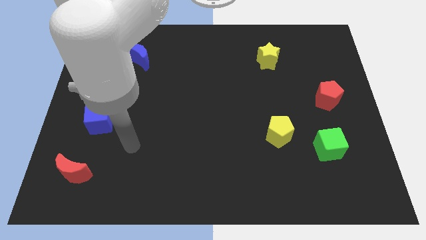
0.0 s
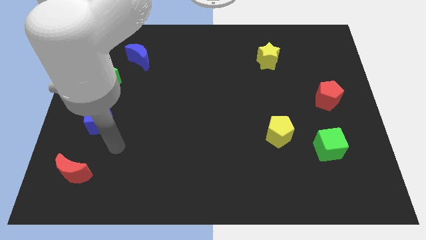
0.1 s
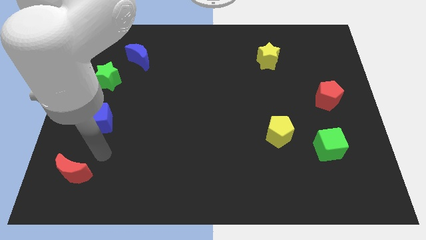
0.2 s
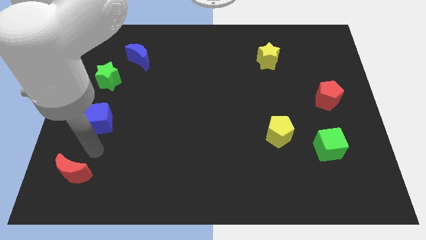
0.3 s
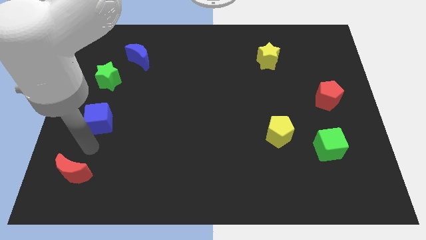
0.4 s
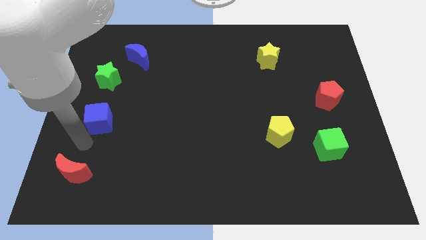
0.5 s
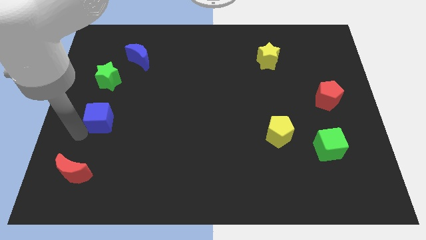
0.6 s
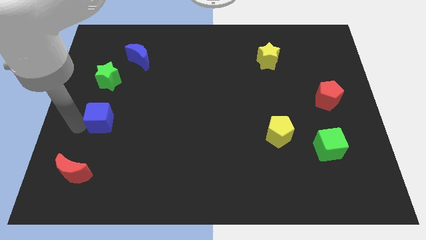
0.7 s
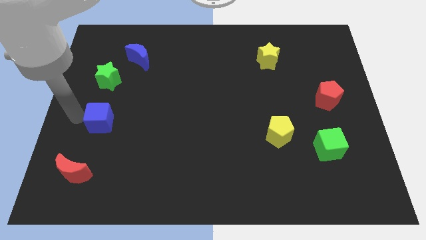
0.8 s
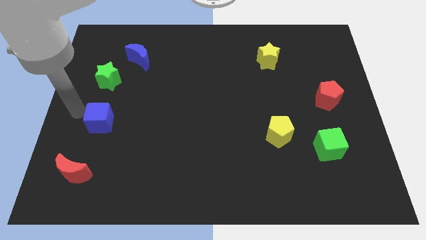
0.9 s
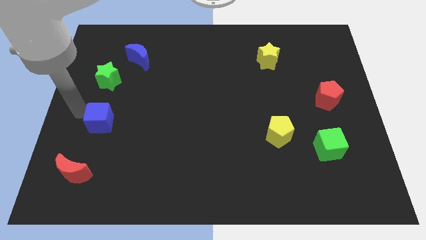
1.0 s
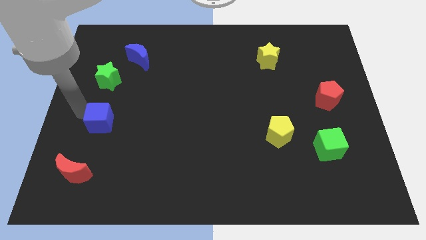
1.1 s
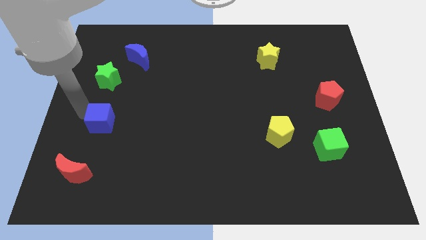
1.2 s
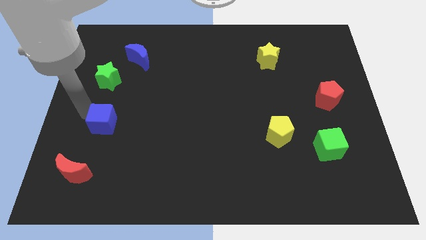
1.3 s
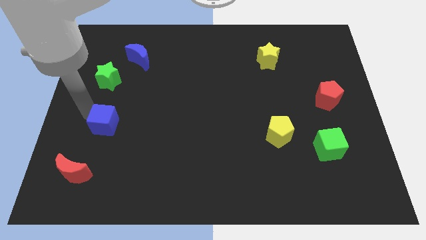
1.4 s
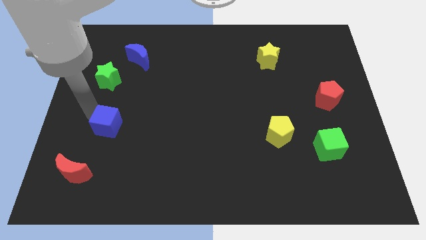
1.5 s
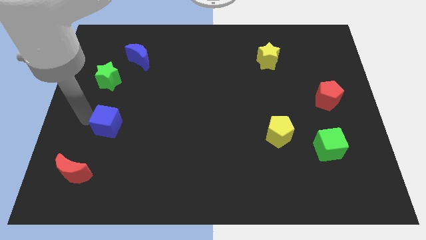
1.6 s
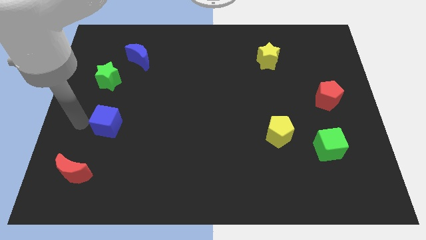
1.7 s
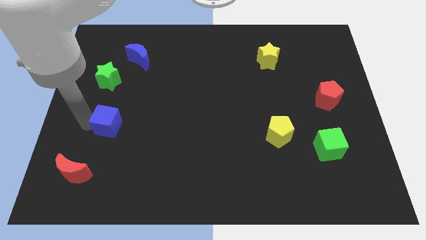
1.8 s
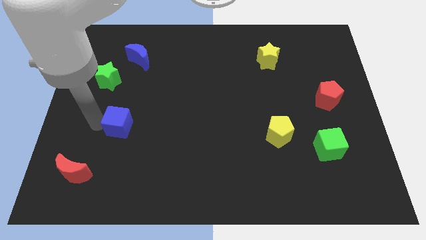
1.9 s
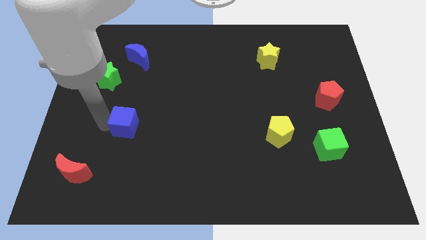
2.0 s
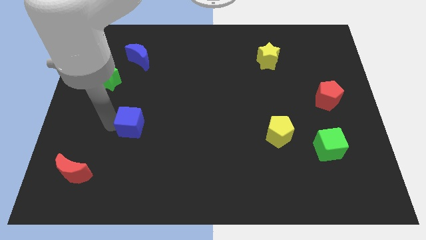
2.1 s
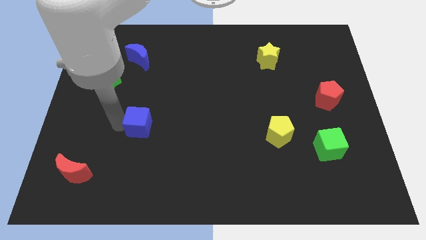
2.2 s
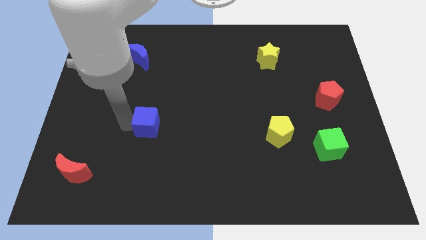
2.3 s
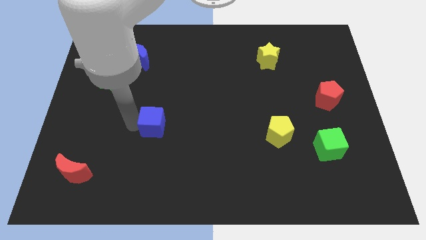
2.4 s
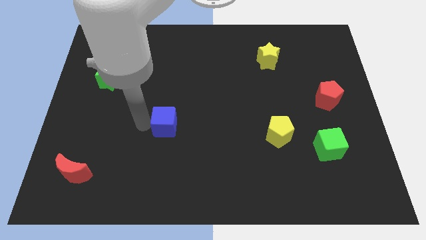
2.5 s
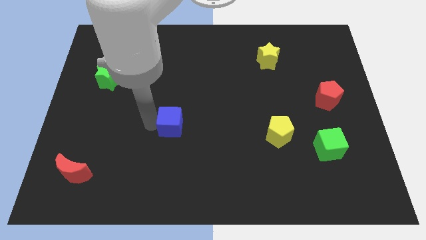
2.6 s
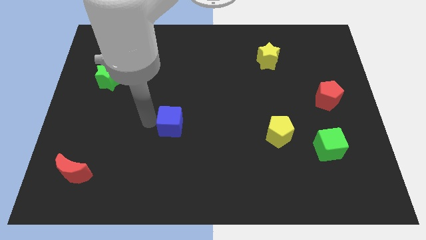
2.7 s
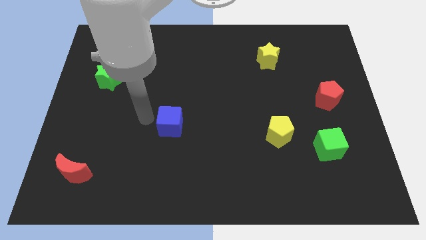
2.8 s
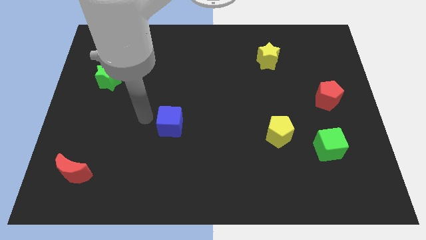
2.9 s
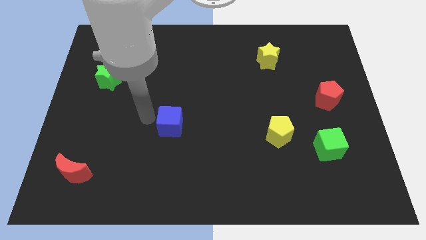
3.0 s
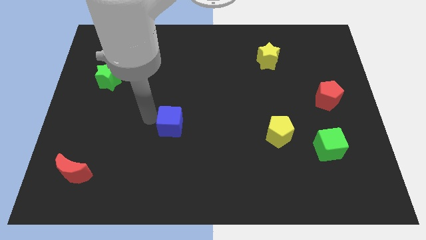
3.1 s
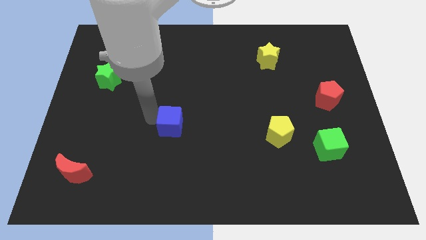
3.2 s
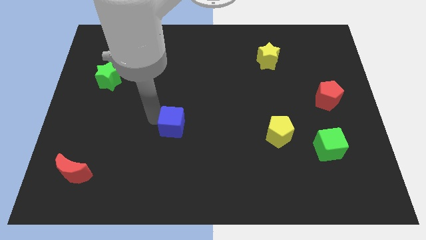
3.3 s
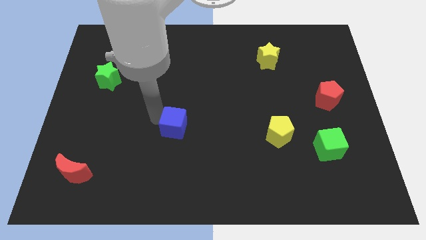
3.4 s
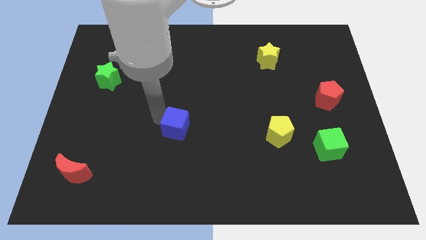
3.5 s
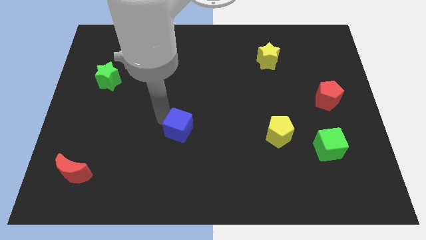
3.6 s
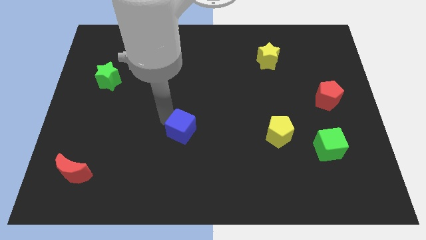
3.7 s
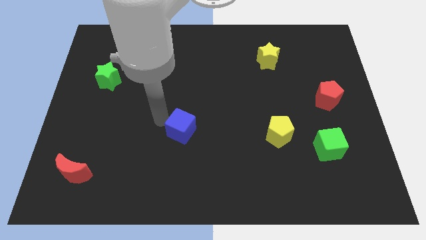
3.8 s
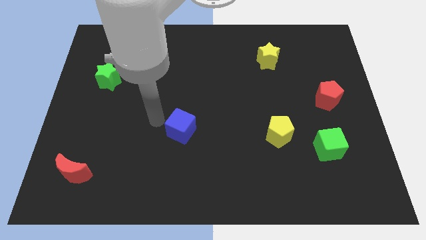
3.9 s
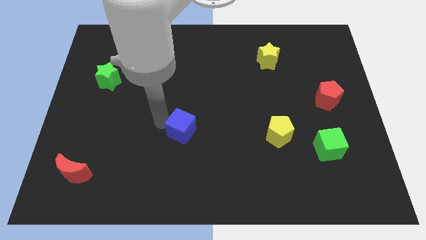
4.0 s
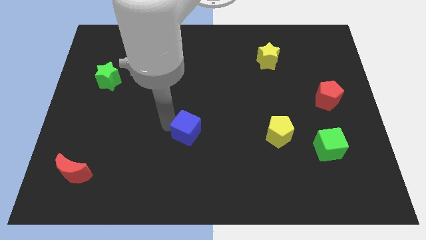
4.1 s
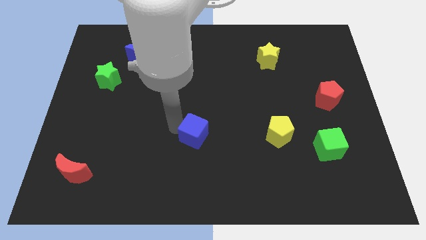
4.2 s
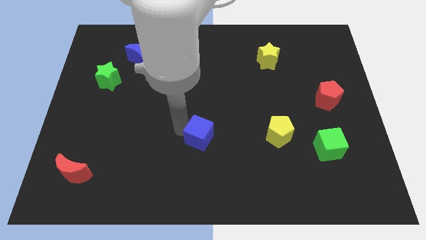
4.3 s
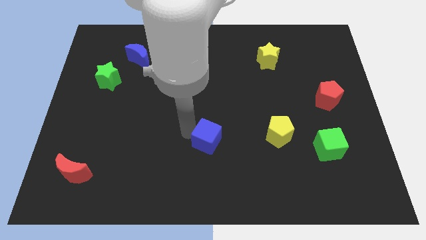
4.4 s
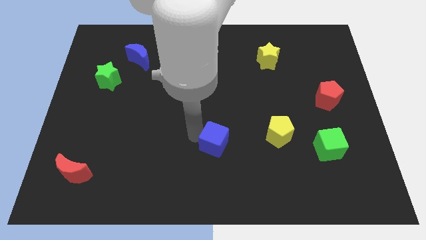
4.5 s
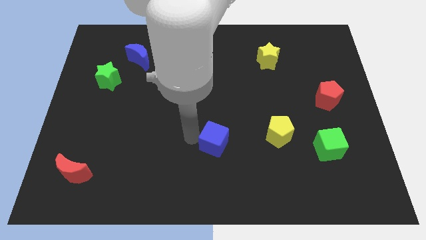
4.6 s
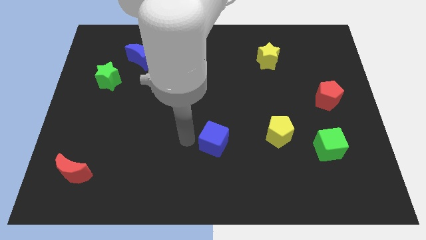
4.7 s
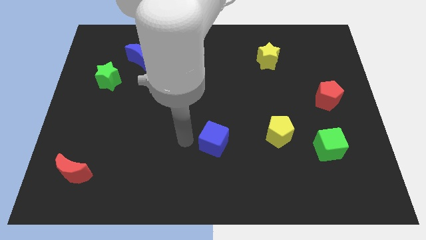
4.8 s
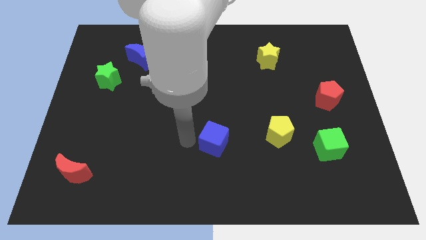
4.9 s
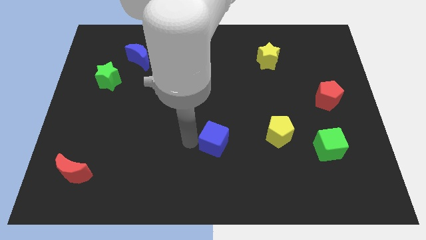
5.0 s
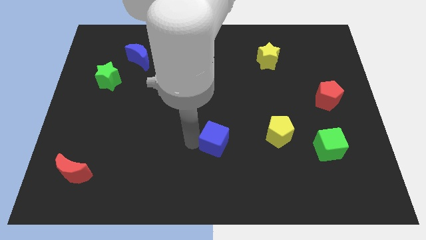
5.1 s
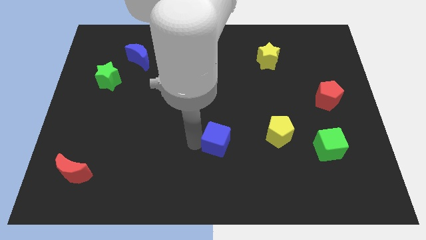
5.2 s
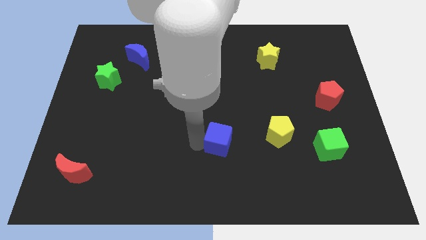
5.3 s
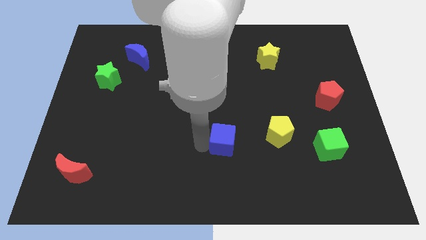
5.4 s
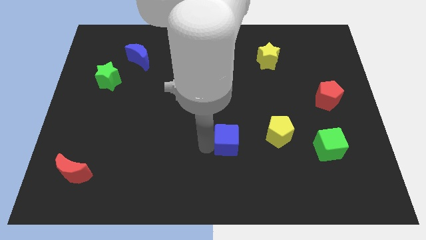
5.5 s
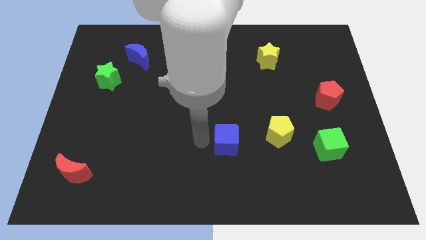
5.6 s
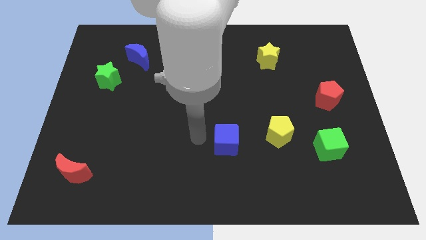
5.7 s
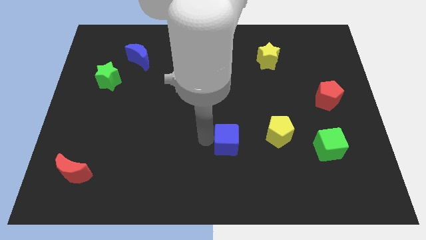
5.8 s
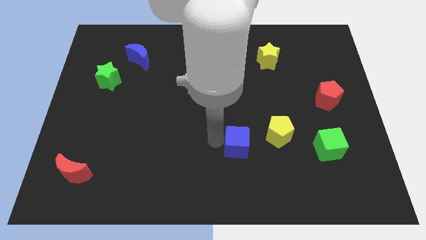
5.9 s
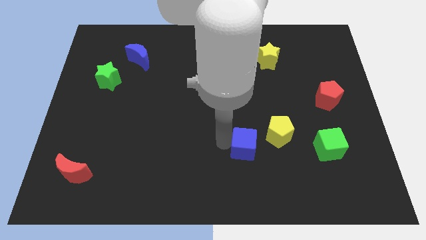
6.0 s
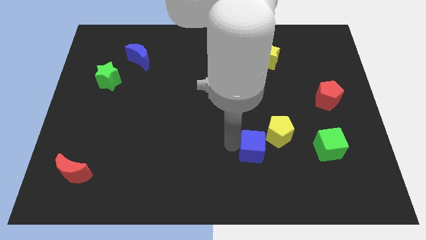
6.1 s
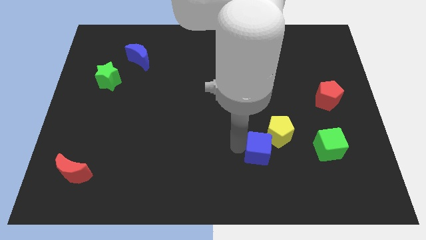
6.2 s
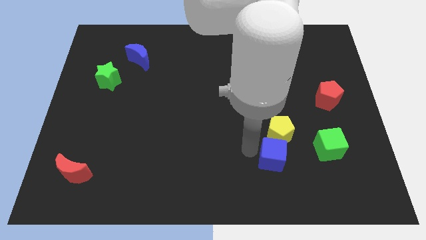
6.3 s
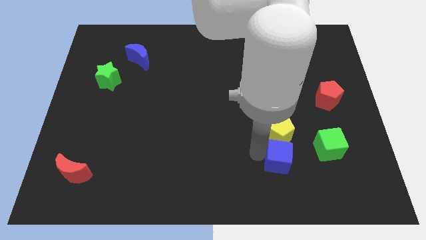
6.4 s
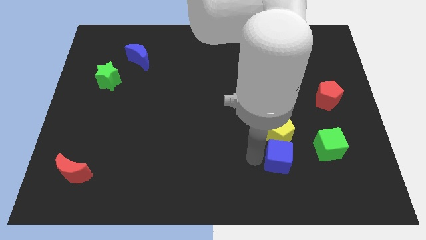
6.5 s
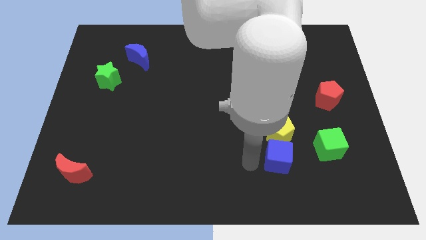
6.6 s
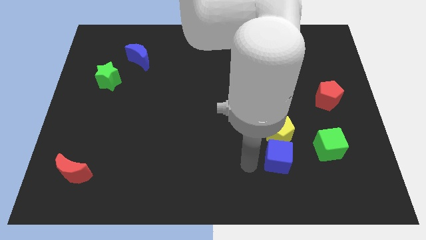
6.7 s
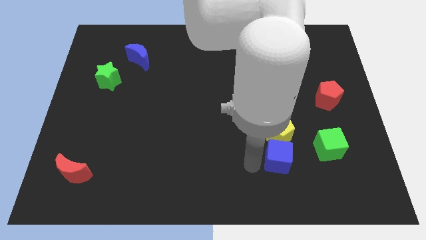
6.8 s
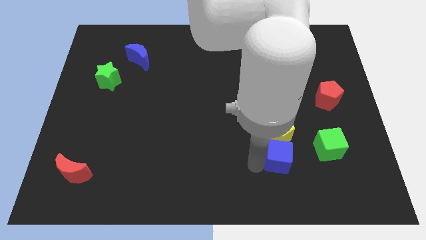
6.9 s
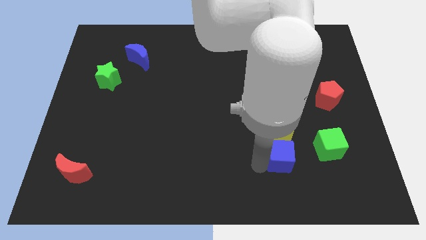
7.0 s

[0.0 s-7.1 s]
push the blue cube diagonally down and to the right of the yellow pentagon
